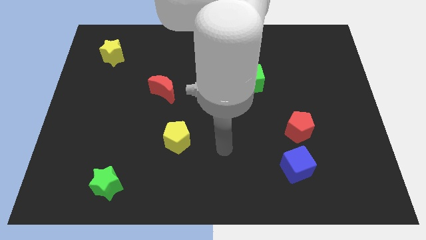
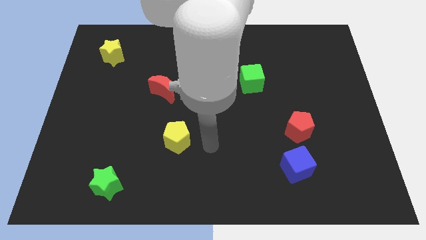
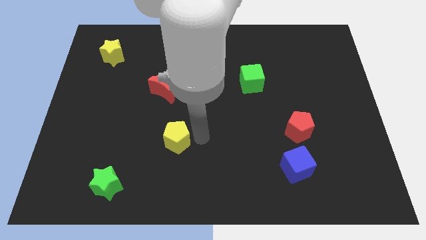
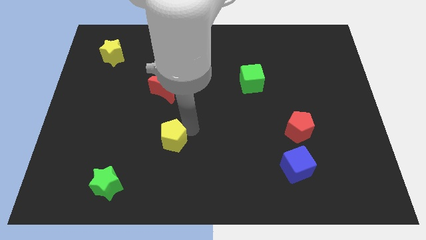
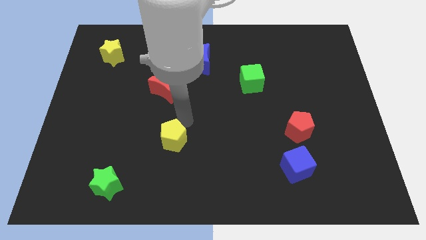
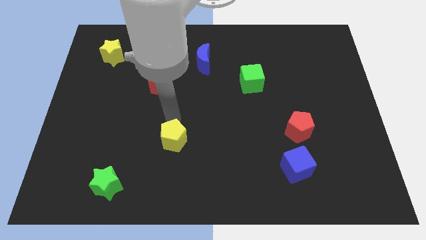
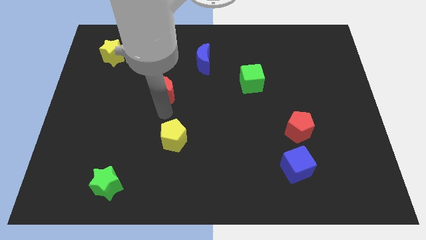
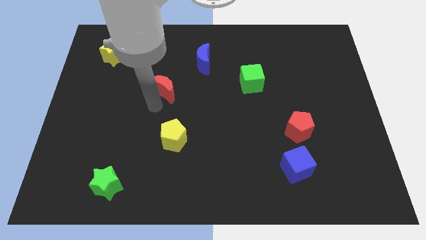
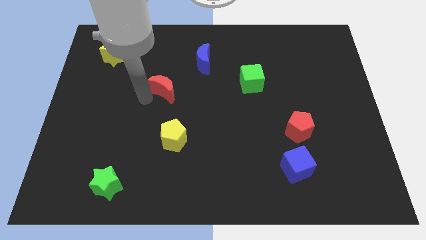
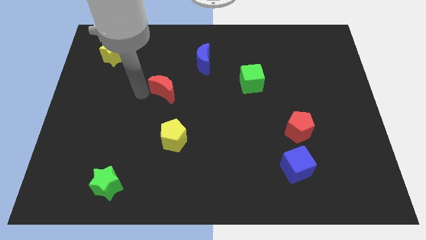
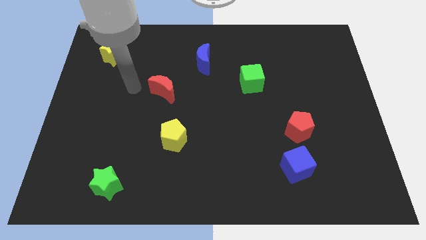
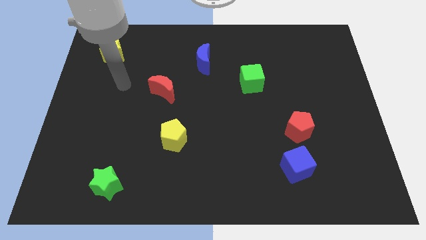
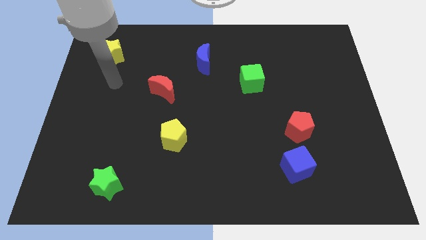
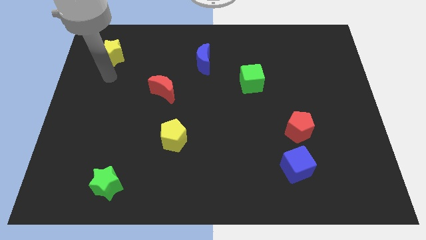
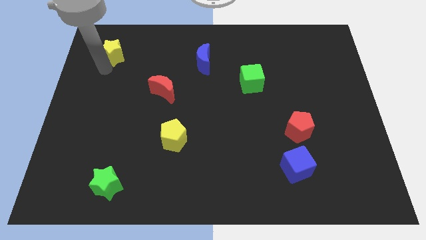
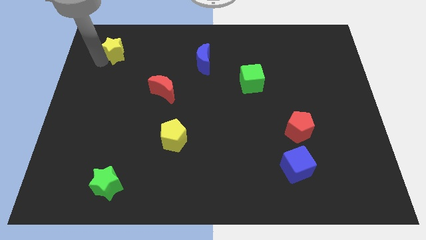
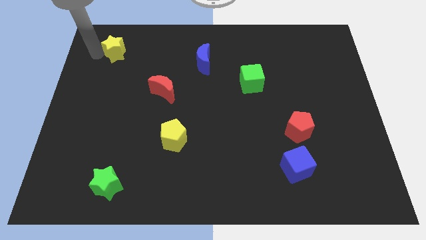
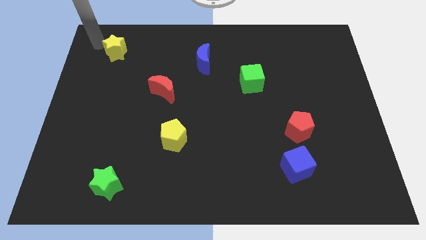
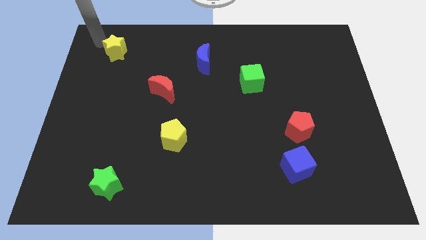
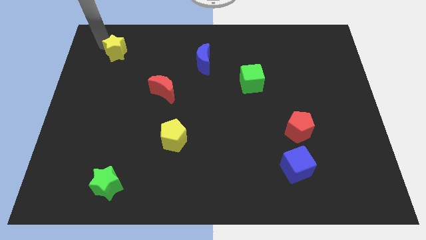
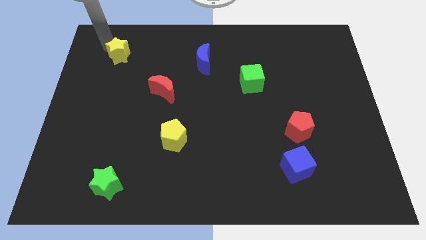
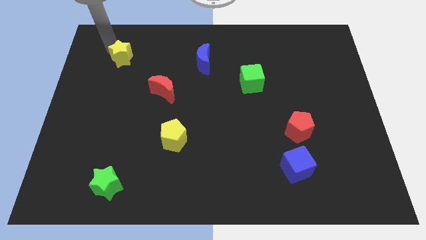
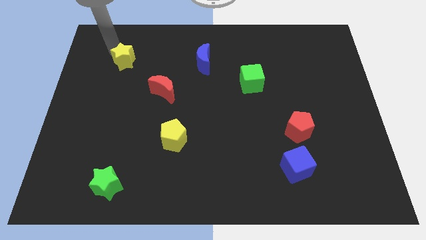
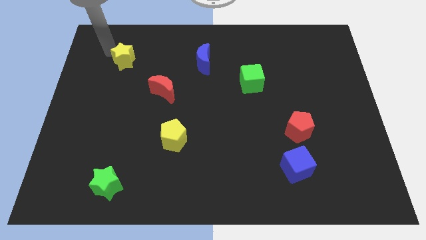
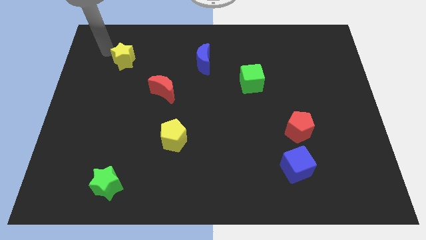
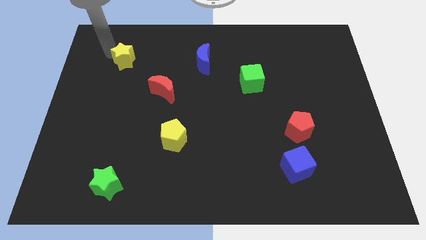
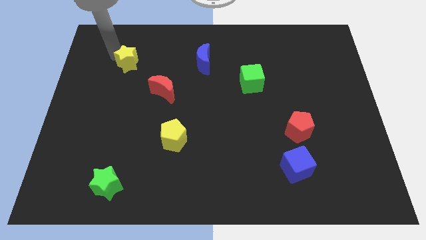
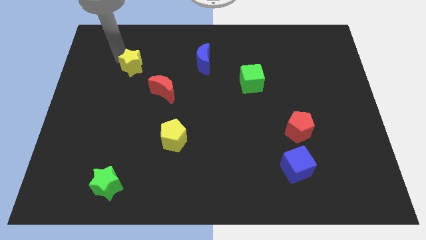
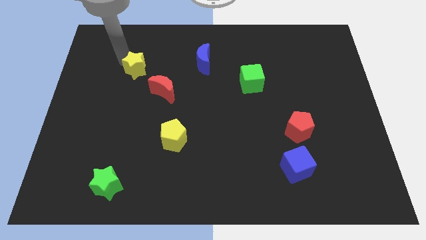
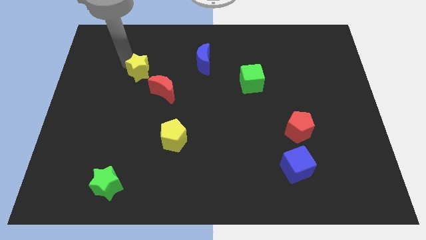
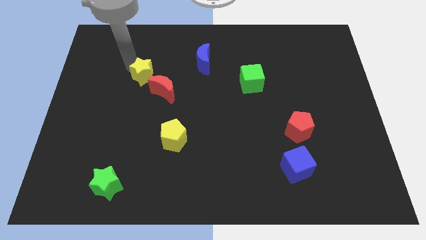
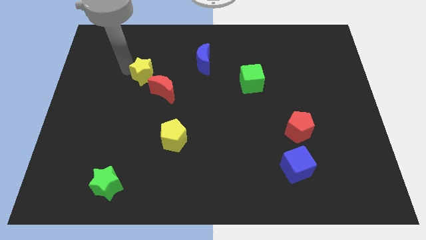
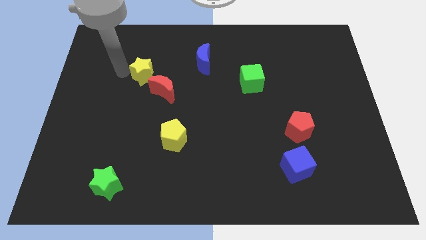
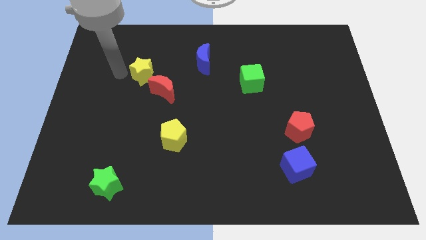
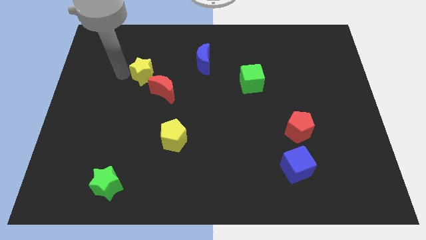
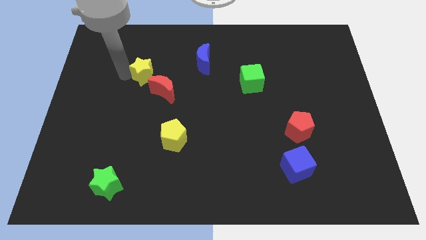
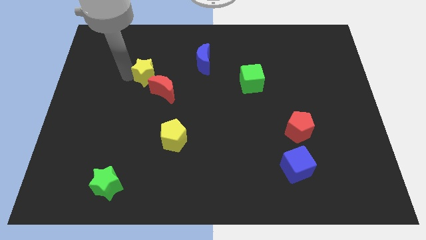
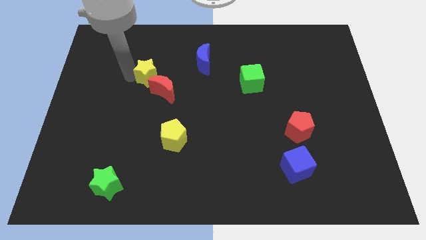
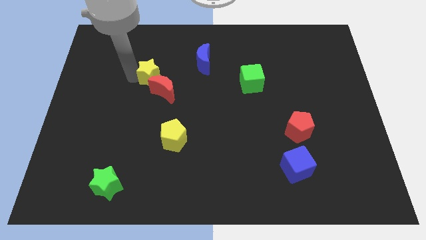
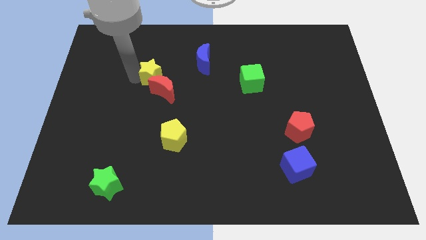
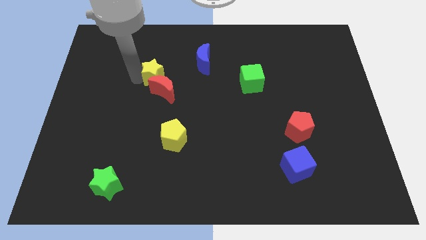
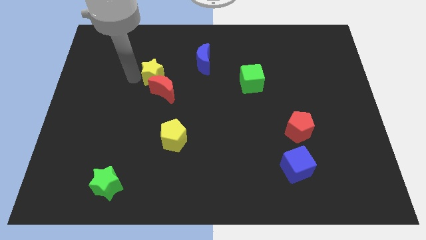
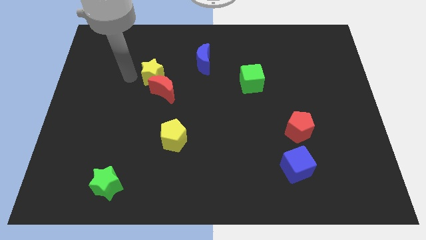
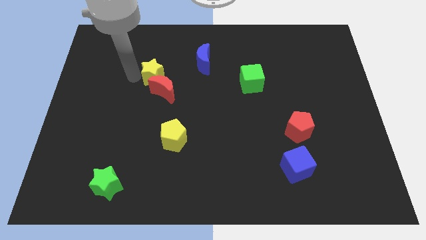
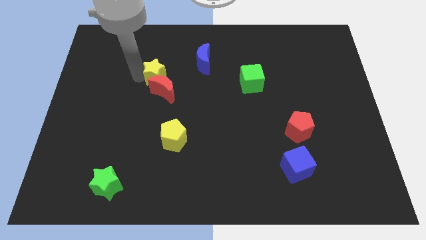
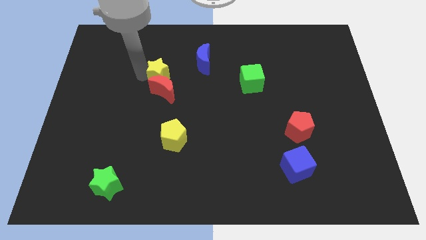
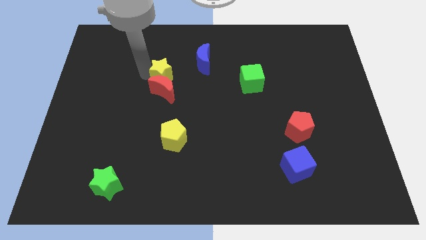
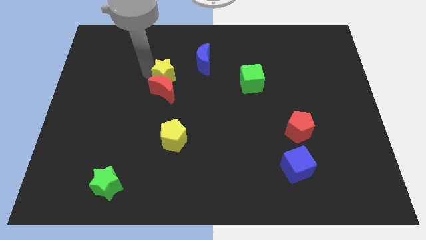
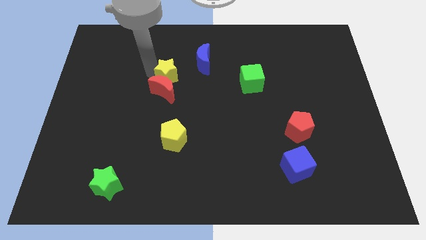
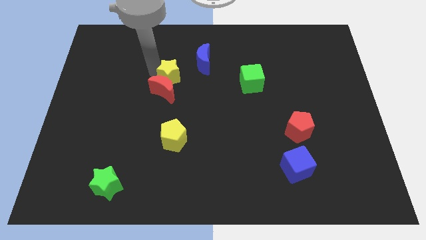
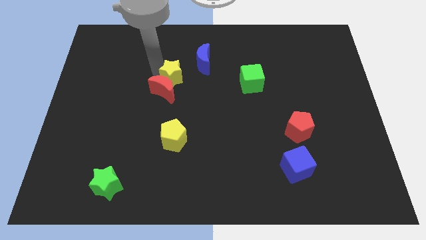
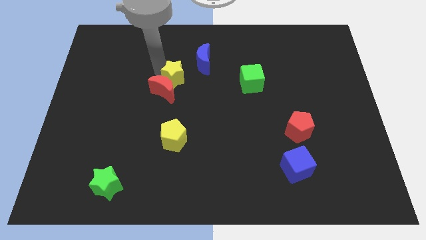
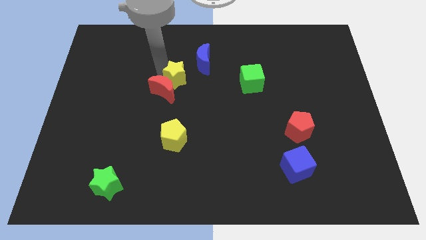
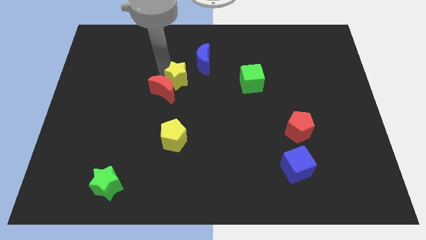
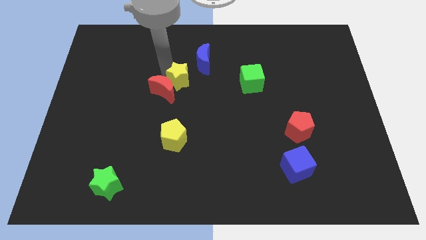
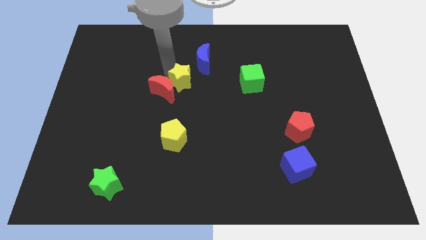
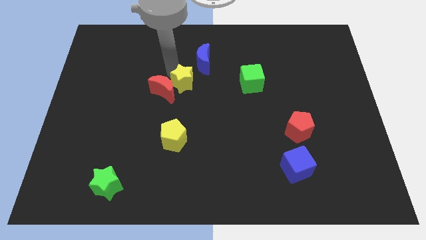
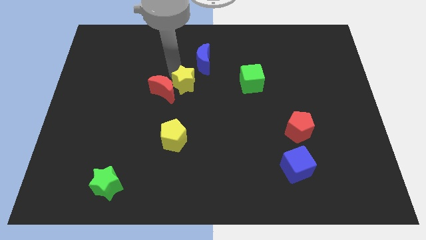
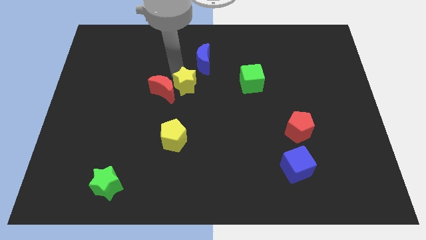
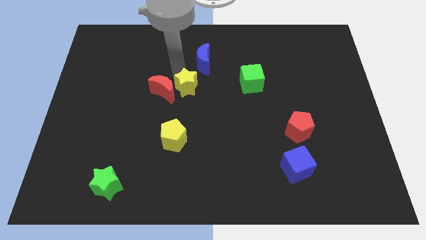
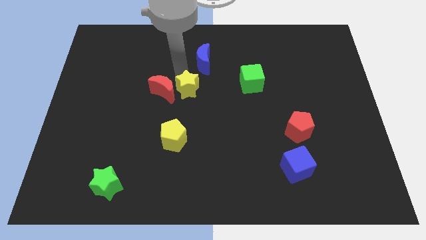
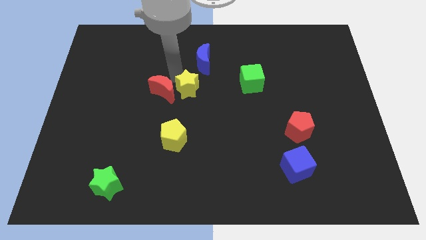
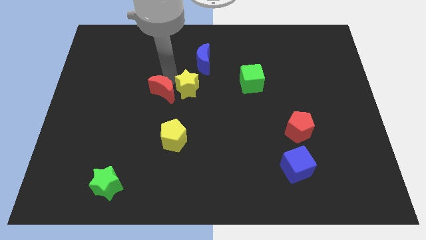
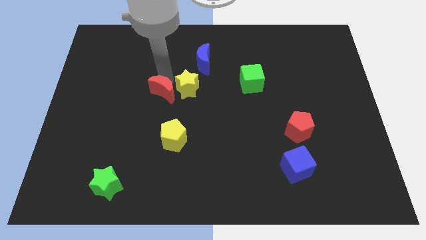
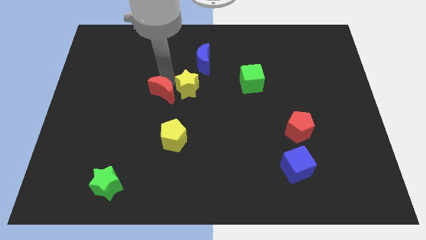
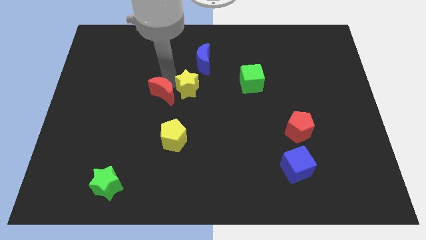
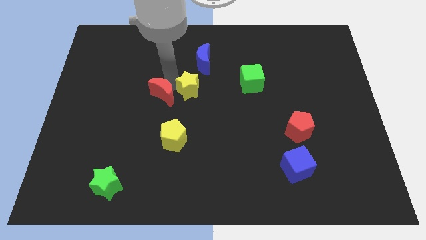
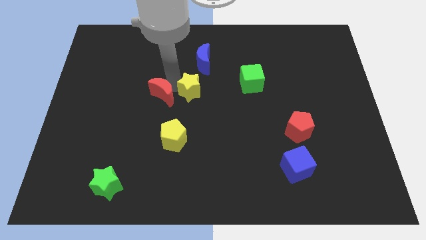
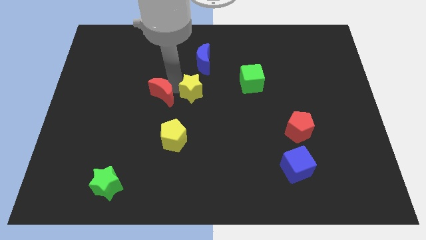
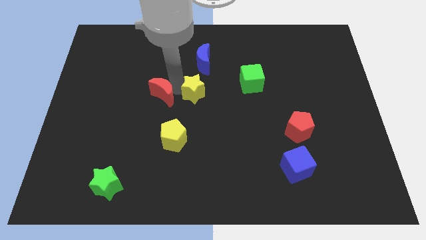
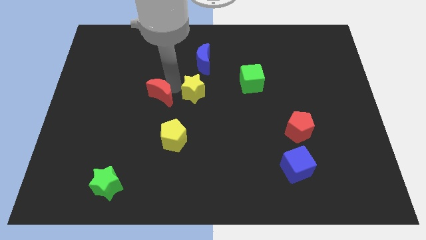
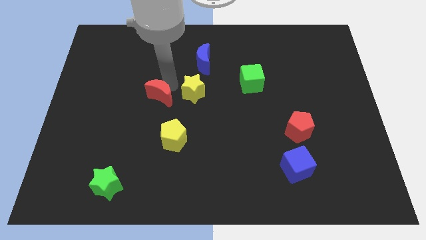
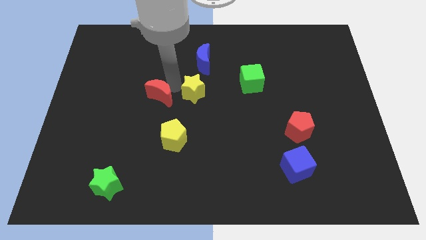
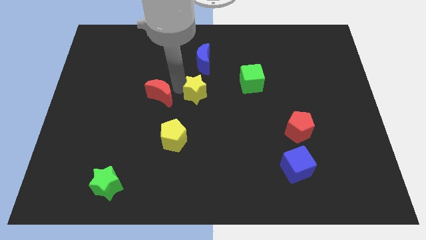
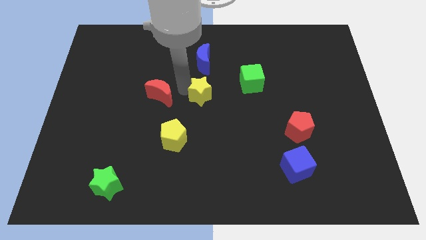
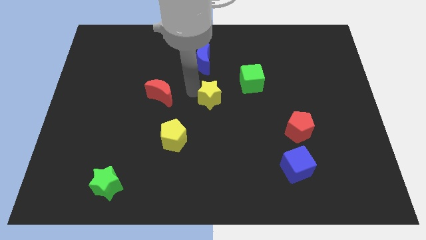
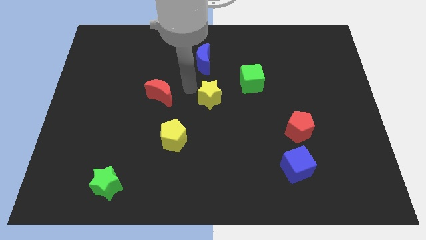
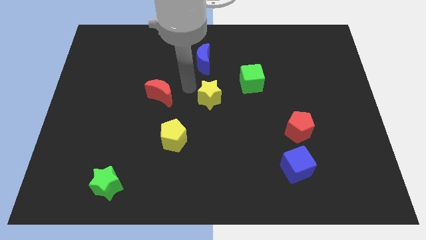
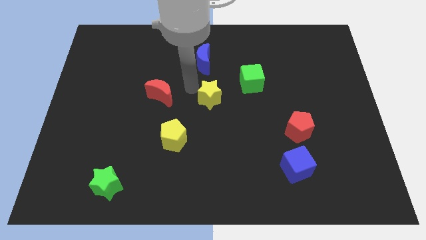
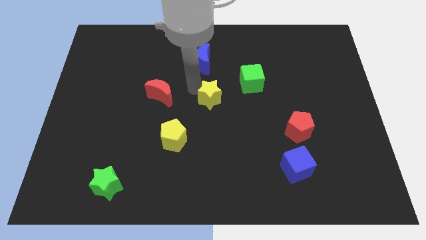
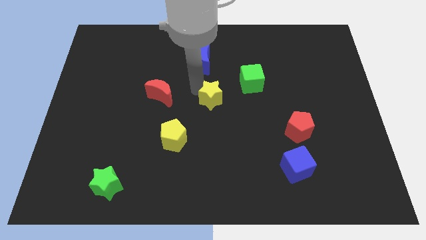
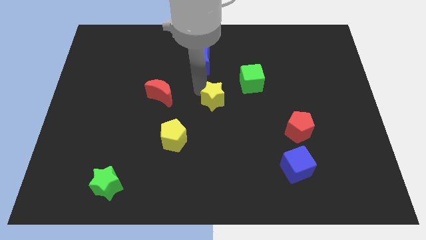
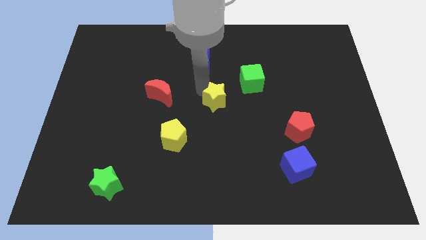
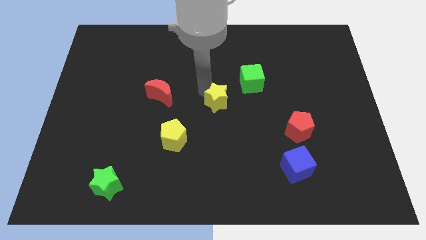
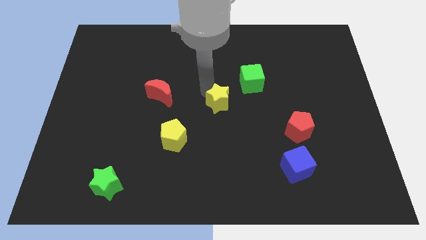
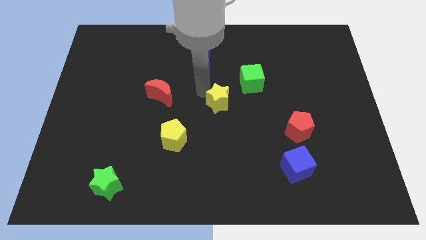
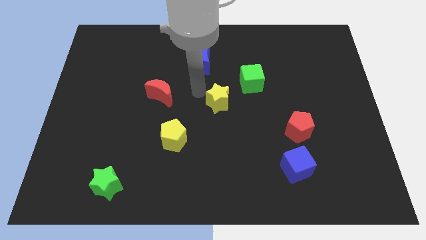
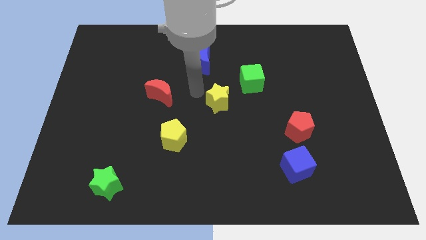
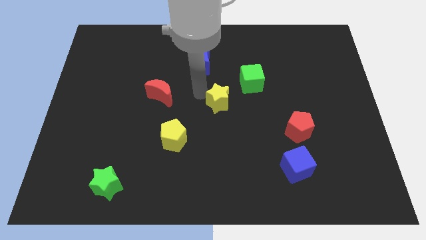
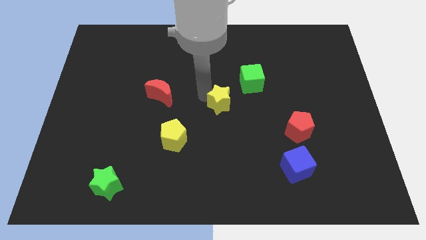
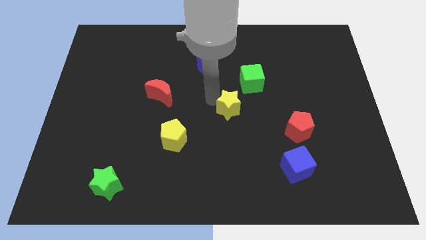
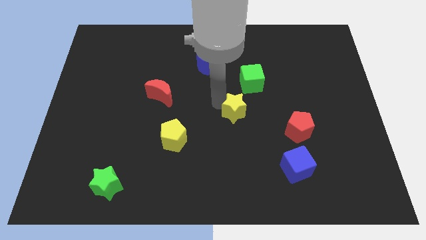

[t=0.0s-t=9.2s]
push the yellow star to the bottom side of the green cube
